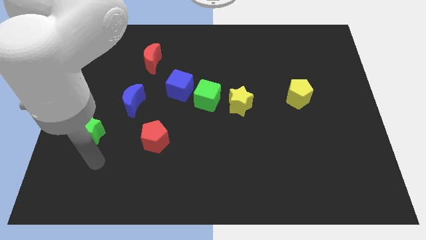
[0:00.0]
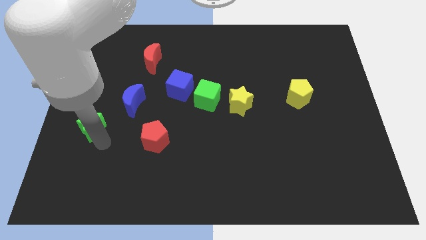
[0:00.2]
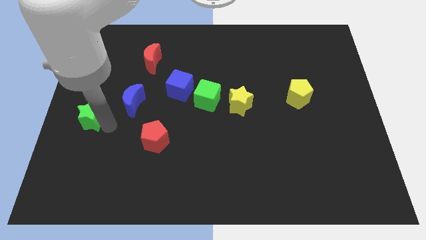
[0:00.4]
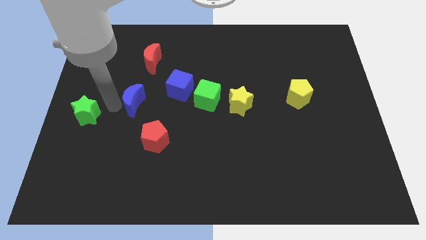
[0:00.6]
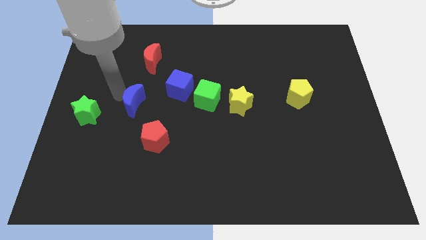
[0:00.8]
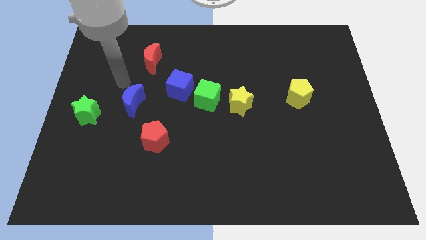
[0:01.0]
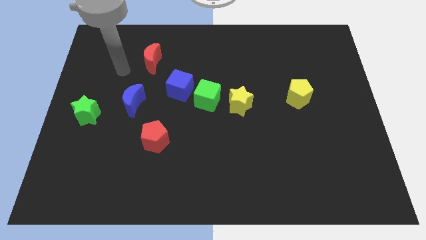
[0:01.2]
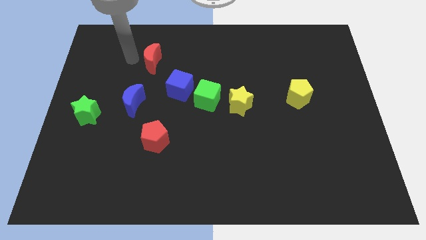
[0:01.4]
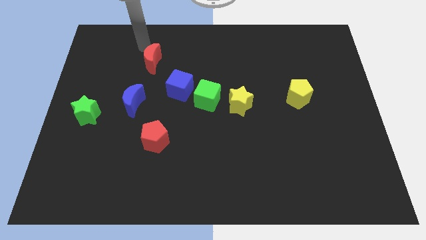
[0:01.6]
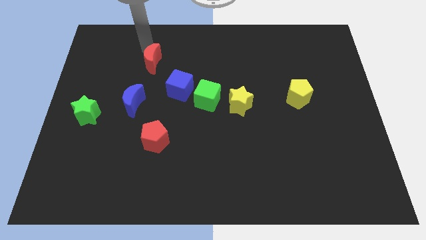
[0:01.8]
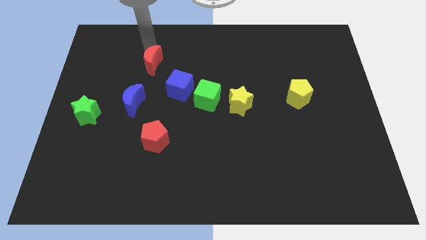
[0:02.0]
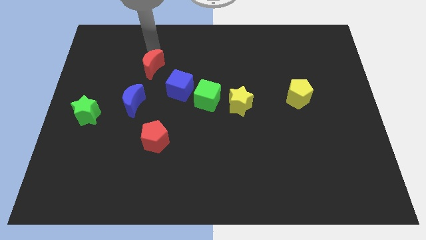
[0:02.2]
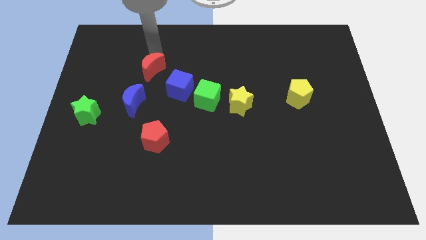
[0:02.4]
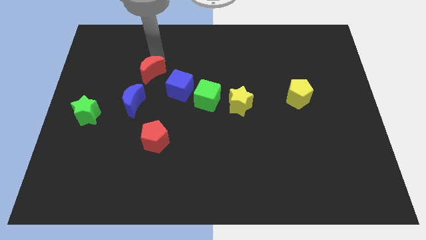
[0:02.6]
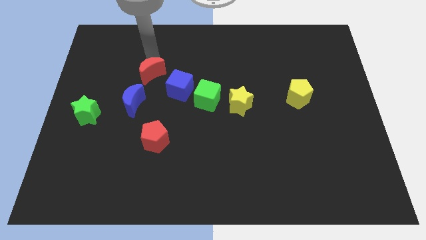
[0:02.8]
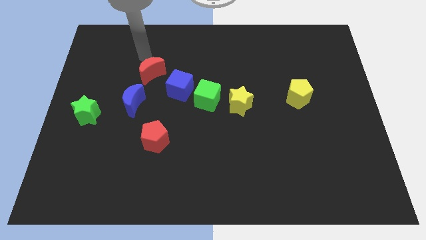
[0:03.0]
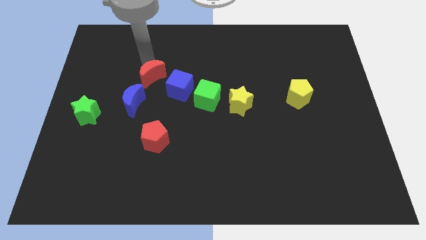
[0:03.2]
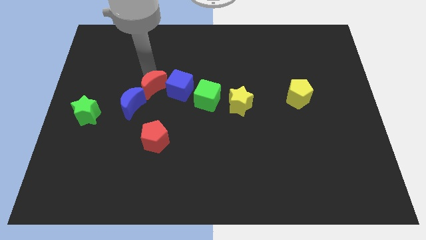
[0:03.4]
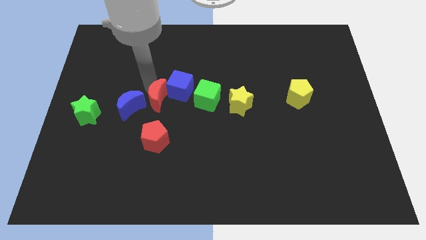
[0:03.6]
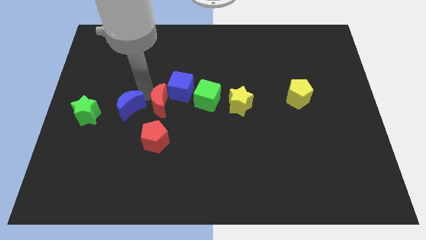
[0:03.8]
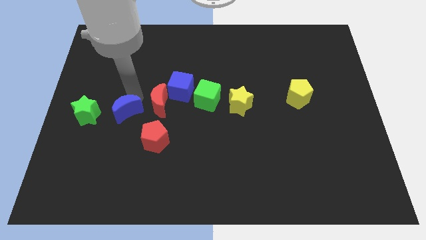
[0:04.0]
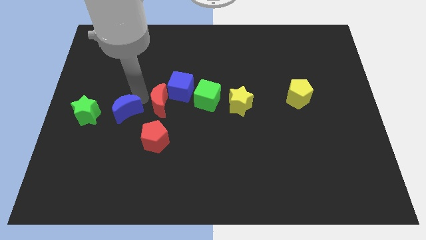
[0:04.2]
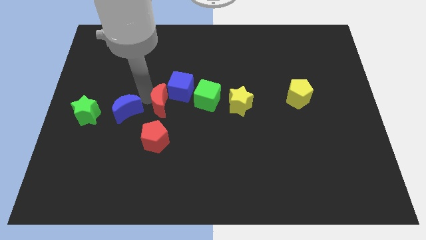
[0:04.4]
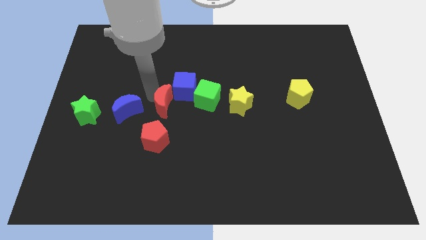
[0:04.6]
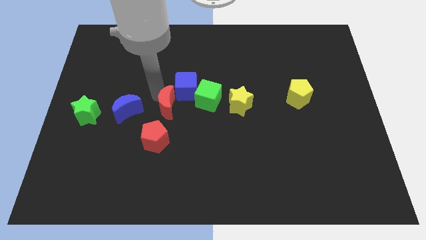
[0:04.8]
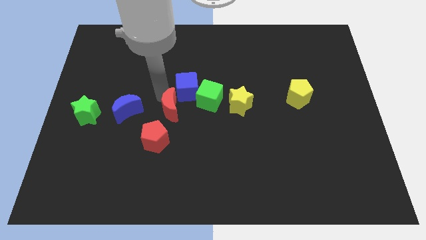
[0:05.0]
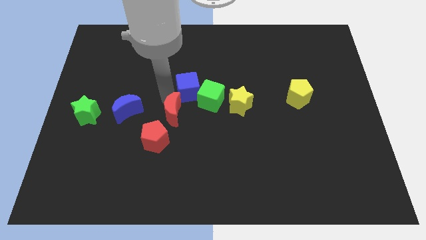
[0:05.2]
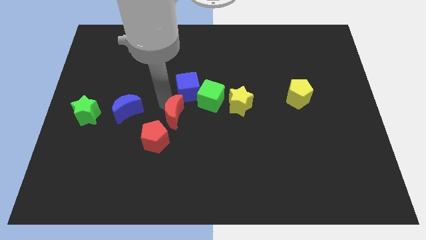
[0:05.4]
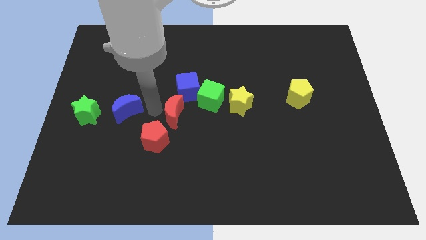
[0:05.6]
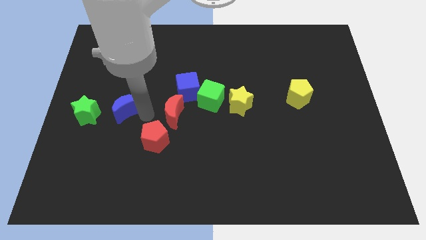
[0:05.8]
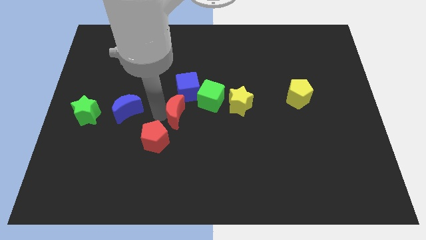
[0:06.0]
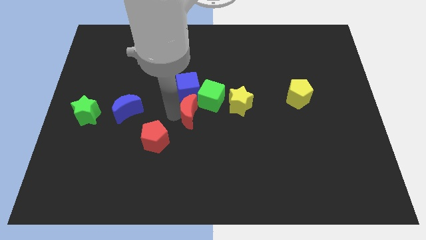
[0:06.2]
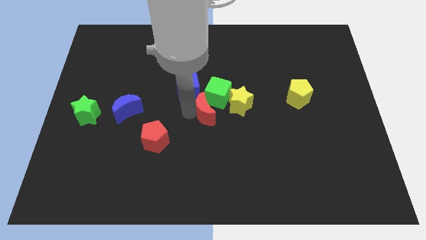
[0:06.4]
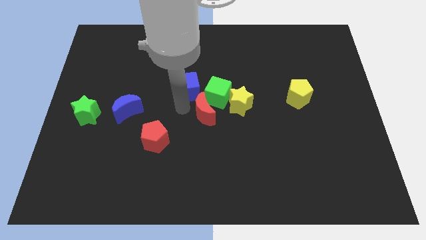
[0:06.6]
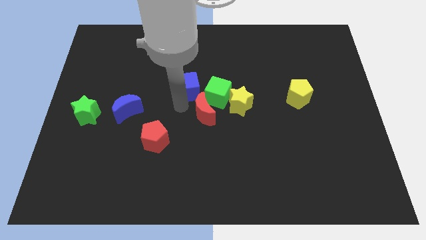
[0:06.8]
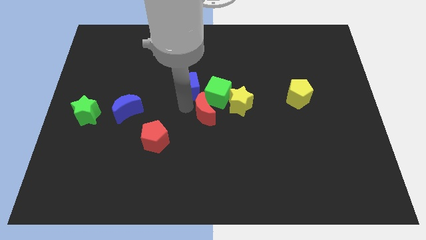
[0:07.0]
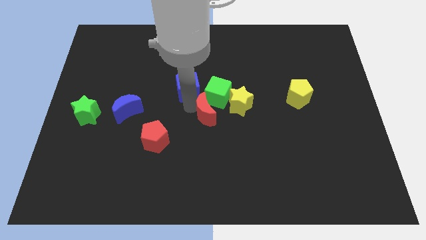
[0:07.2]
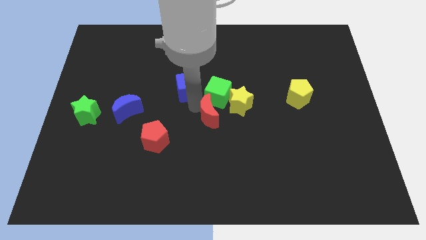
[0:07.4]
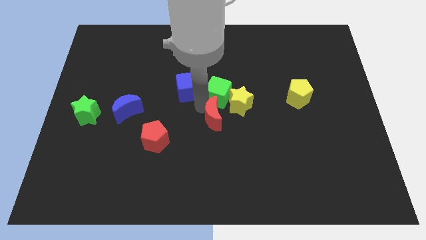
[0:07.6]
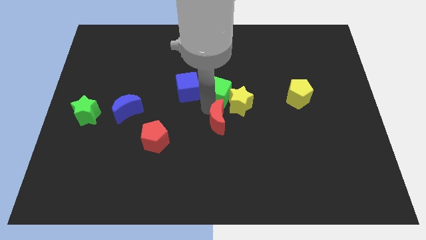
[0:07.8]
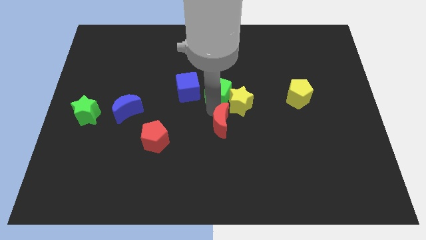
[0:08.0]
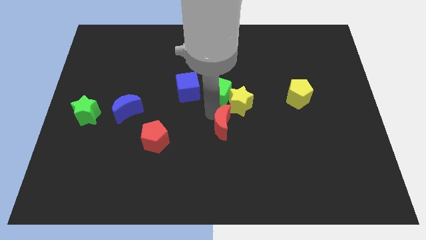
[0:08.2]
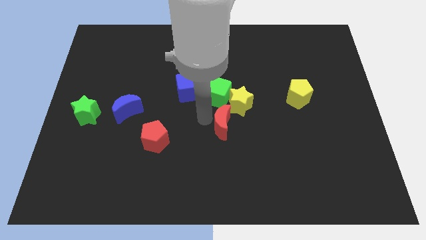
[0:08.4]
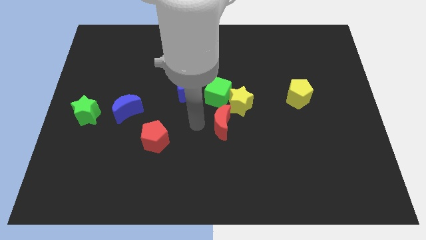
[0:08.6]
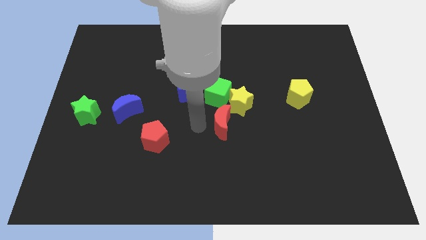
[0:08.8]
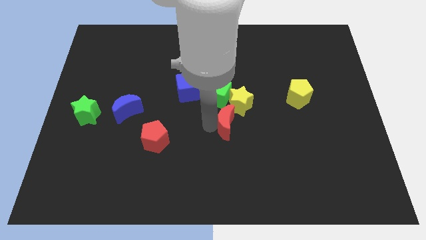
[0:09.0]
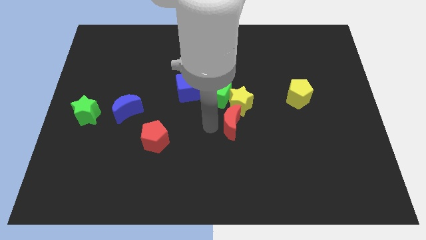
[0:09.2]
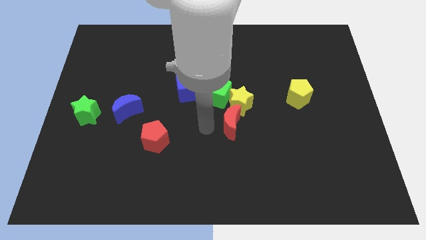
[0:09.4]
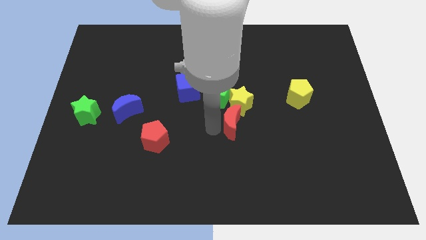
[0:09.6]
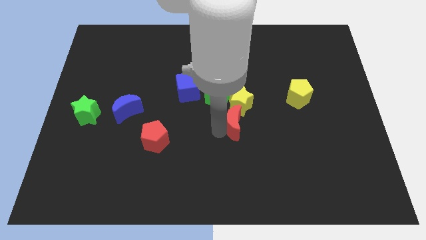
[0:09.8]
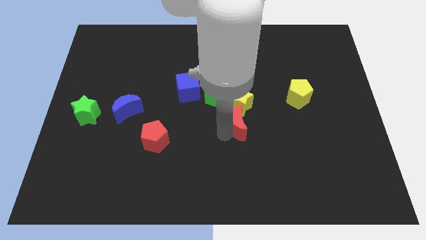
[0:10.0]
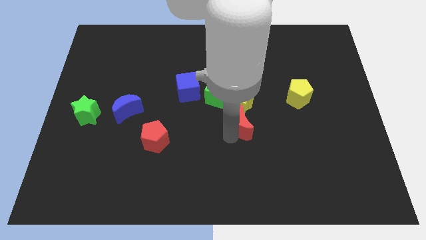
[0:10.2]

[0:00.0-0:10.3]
slide the red moon diagonally down and to the right of the yellow star

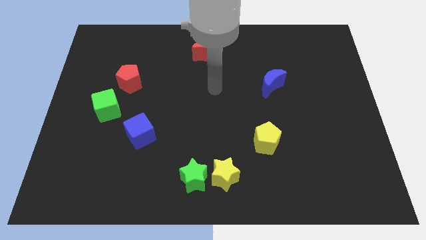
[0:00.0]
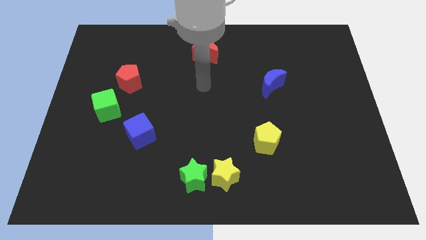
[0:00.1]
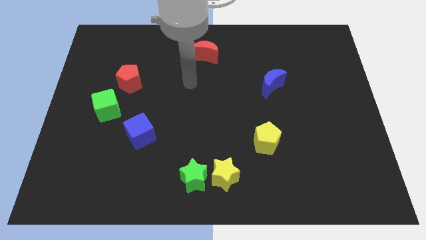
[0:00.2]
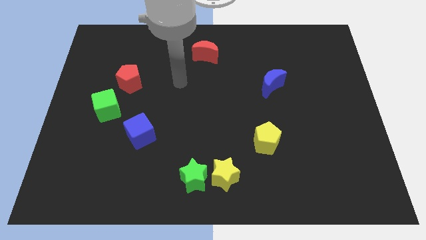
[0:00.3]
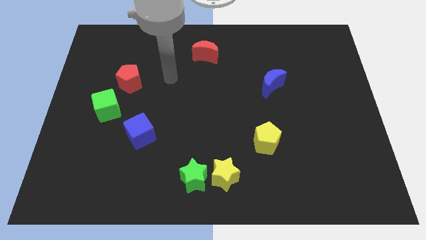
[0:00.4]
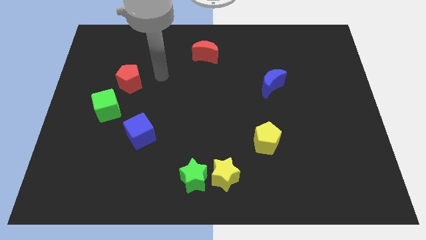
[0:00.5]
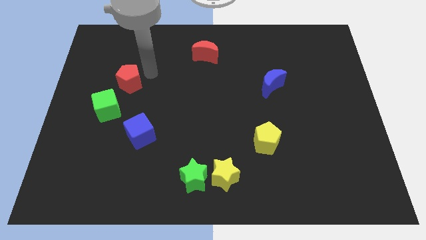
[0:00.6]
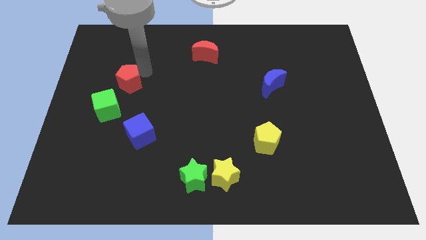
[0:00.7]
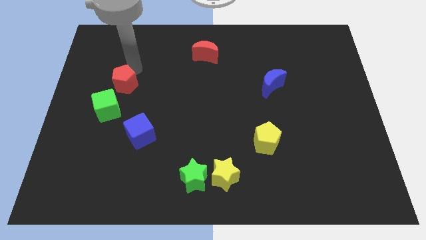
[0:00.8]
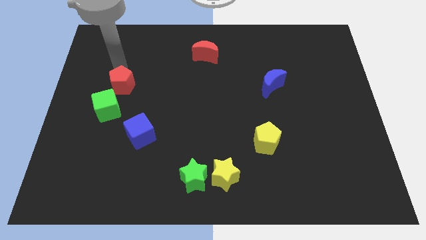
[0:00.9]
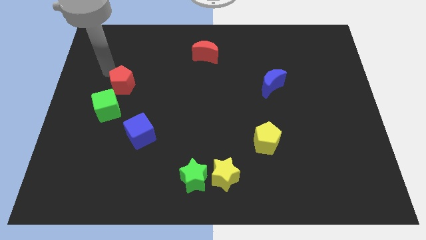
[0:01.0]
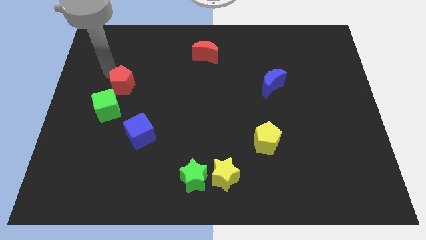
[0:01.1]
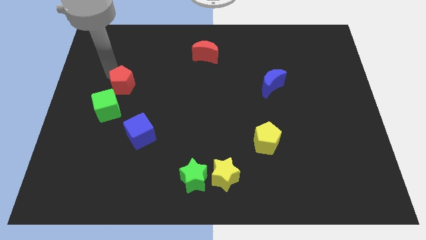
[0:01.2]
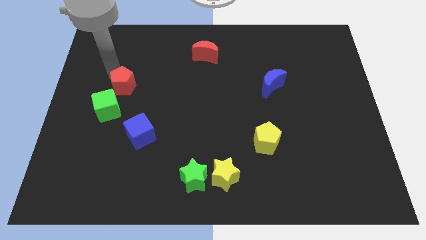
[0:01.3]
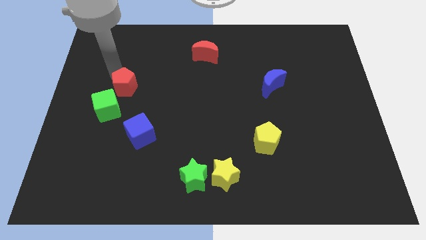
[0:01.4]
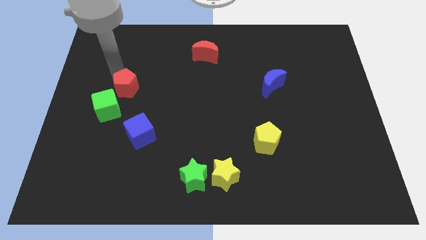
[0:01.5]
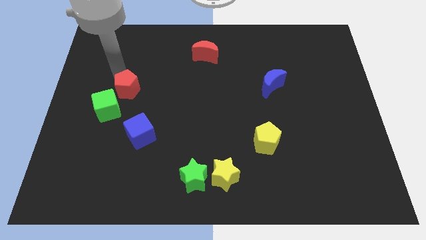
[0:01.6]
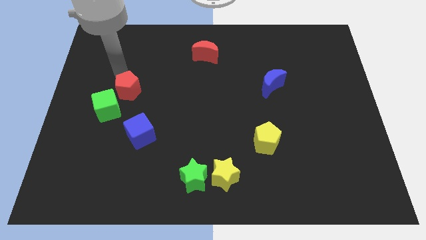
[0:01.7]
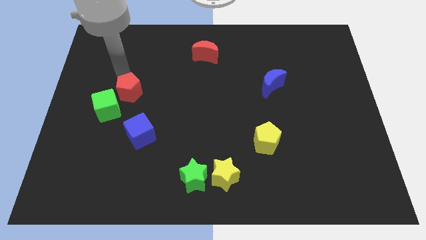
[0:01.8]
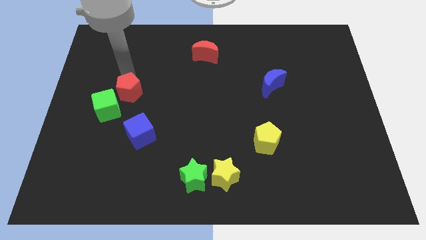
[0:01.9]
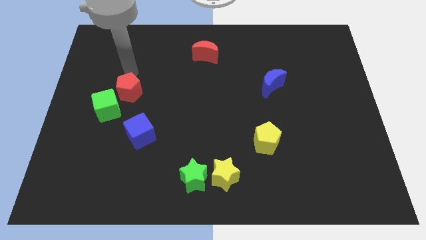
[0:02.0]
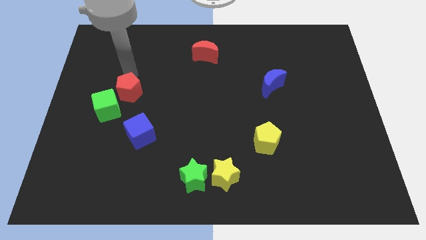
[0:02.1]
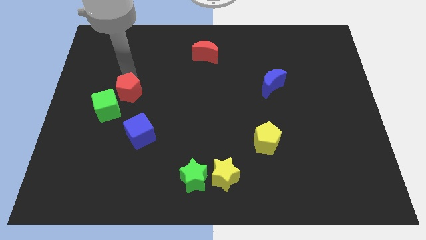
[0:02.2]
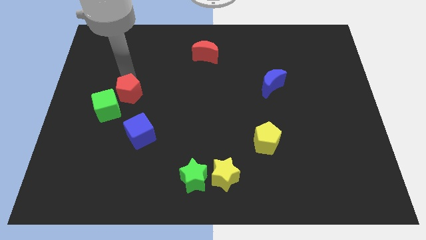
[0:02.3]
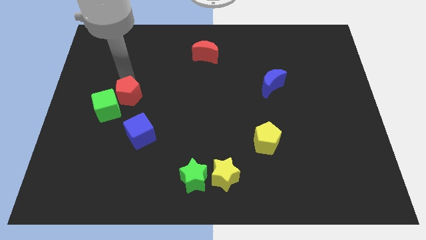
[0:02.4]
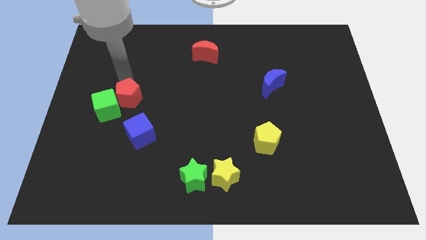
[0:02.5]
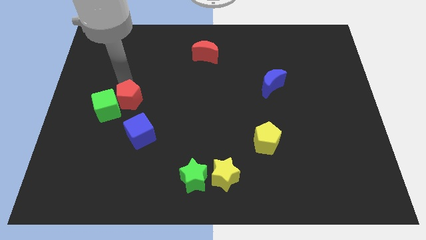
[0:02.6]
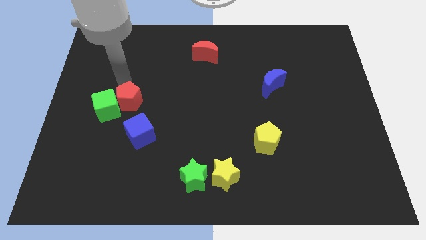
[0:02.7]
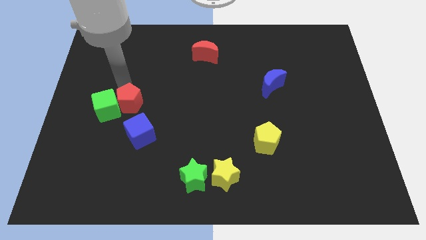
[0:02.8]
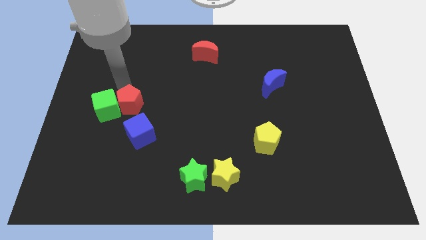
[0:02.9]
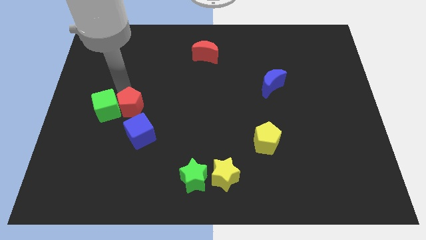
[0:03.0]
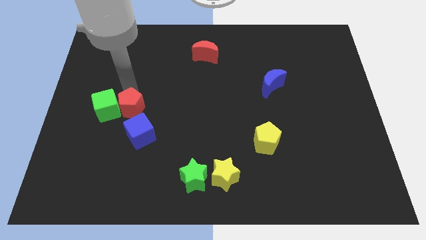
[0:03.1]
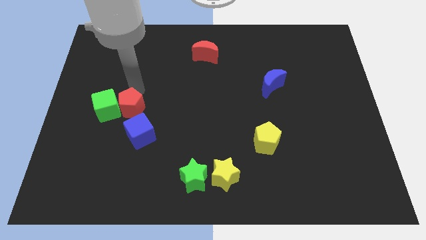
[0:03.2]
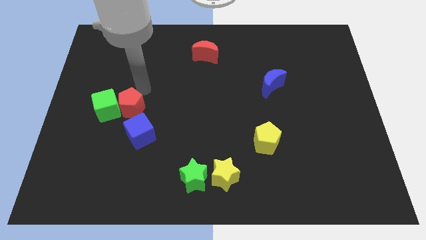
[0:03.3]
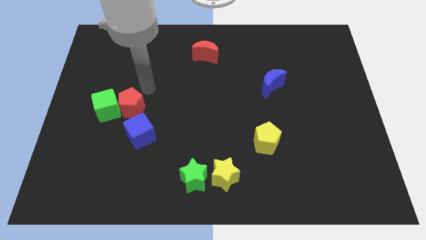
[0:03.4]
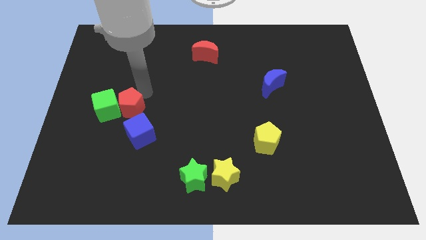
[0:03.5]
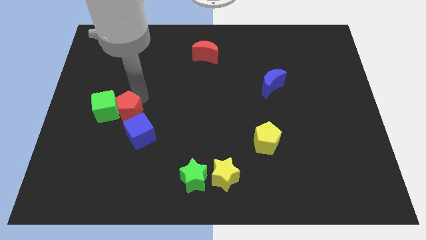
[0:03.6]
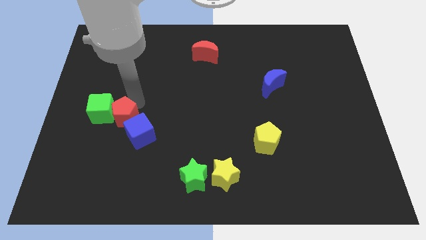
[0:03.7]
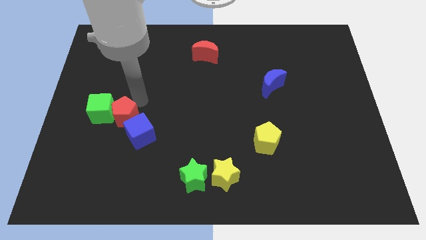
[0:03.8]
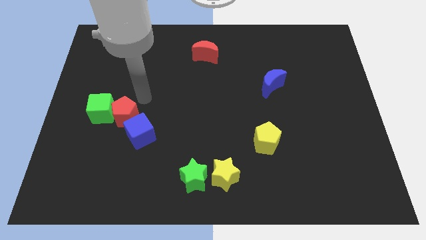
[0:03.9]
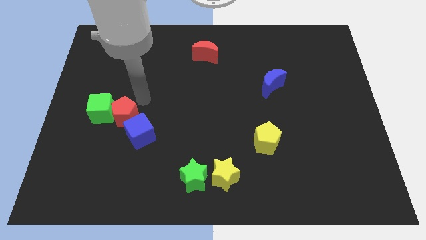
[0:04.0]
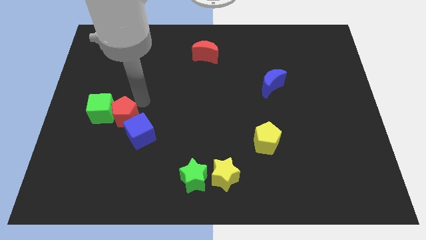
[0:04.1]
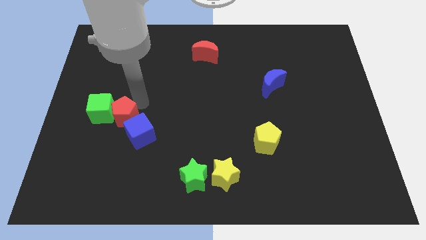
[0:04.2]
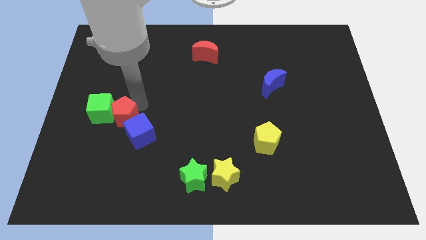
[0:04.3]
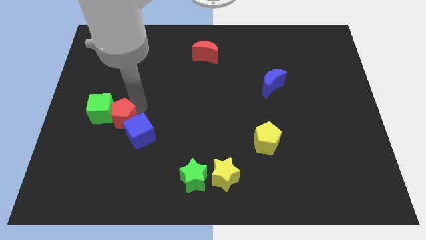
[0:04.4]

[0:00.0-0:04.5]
move the red pentagon left of the blue cube
